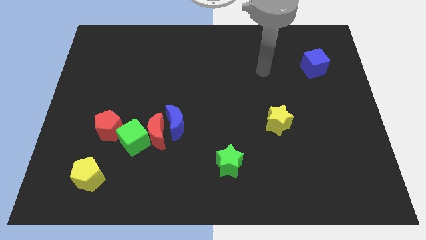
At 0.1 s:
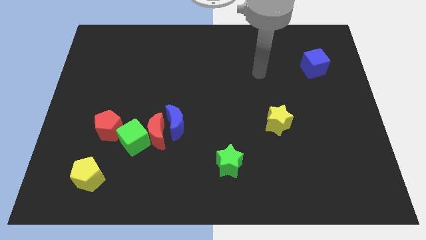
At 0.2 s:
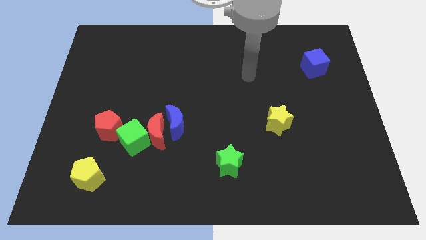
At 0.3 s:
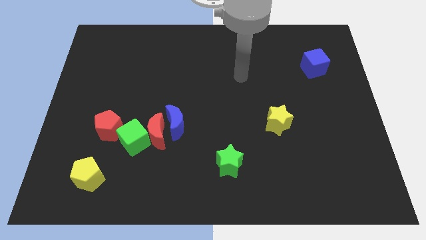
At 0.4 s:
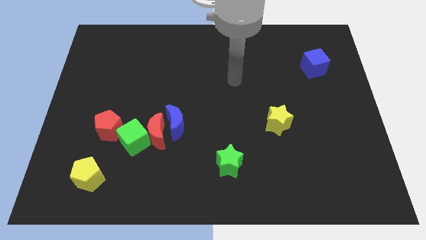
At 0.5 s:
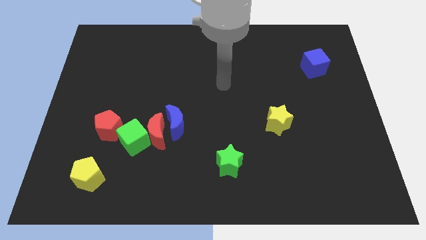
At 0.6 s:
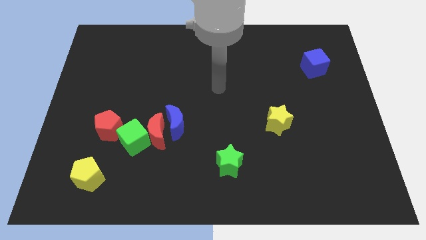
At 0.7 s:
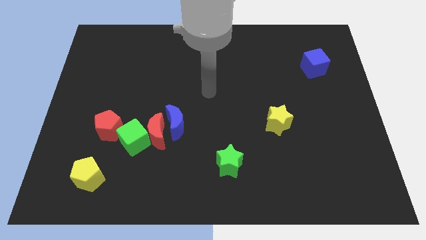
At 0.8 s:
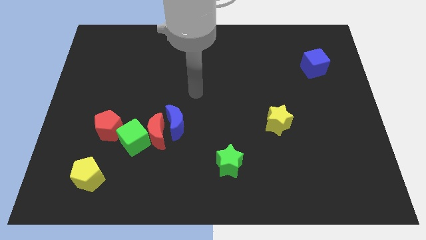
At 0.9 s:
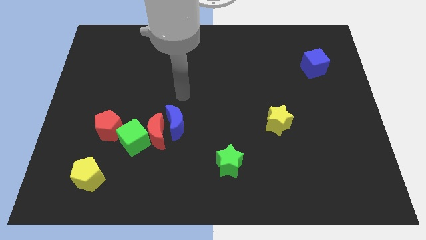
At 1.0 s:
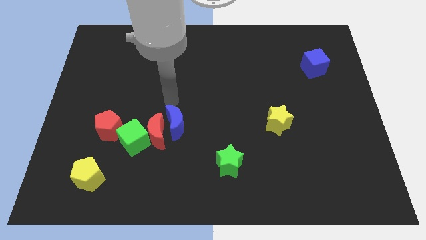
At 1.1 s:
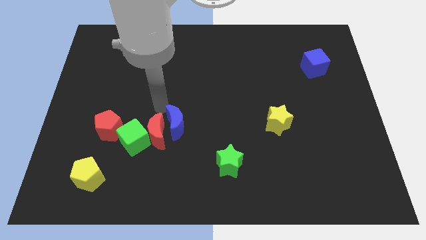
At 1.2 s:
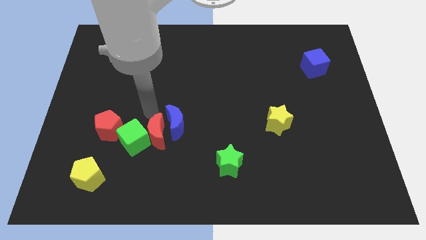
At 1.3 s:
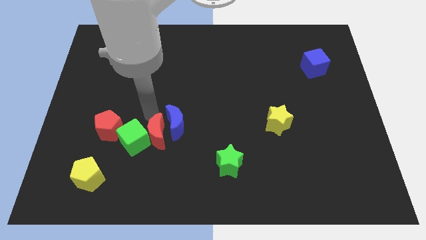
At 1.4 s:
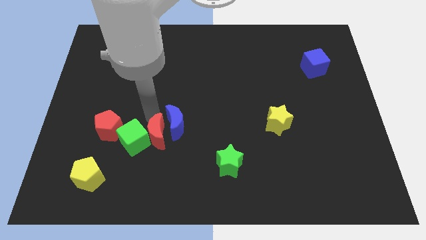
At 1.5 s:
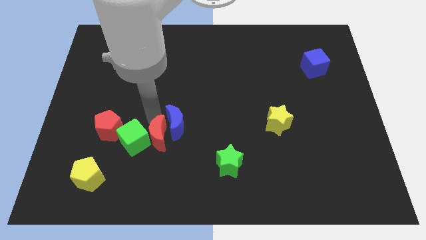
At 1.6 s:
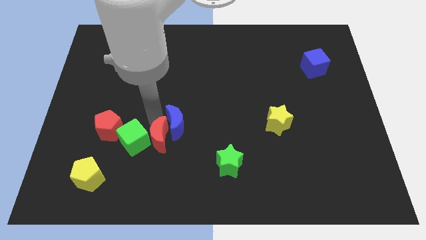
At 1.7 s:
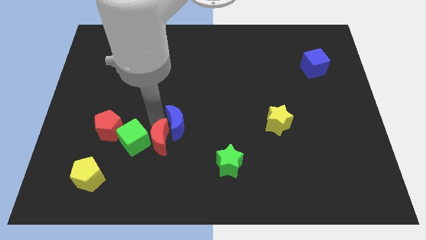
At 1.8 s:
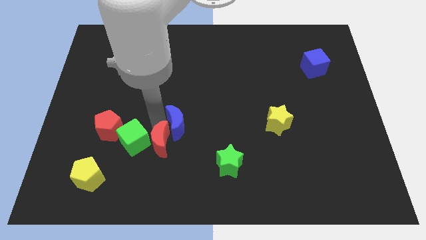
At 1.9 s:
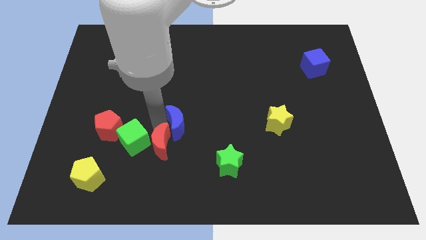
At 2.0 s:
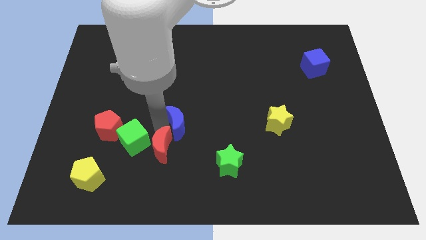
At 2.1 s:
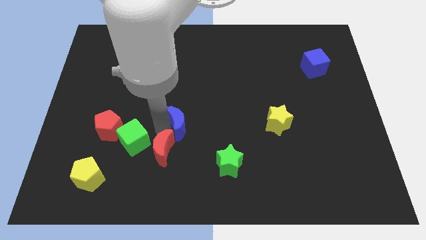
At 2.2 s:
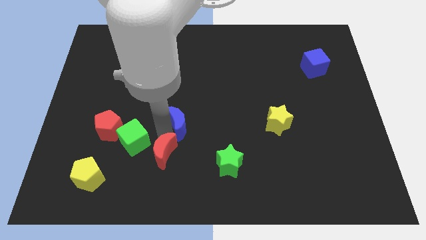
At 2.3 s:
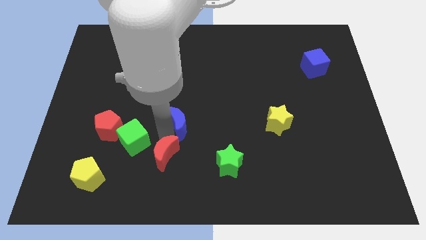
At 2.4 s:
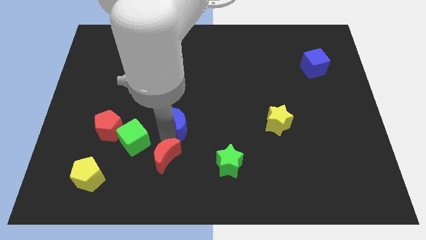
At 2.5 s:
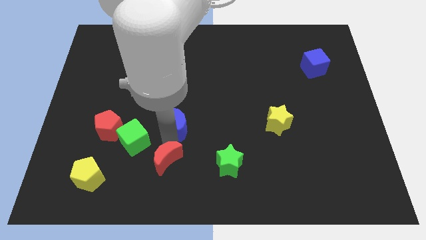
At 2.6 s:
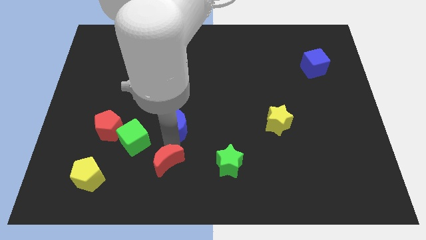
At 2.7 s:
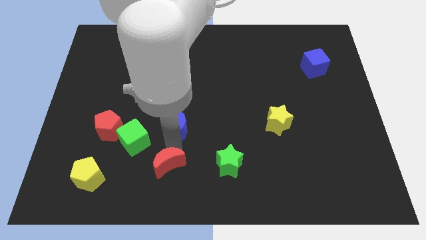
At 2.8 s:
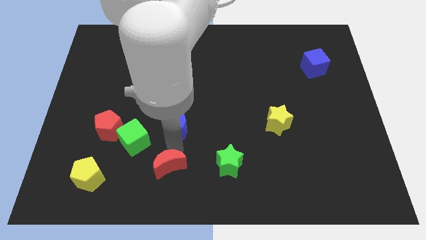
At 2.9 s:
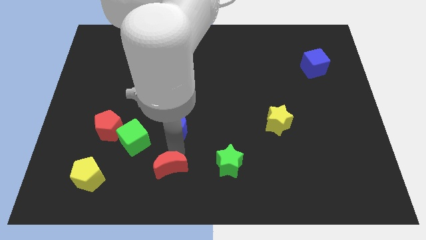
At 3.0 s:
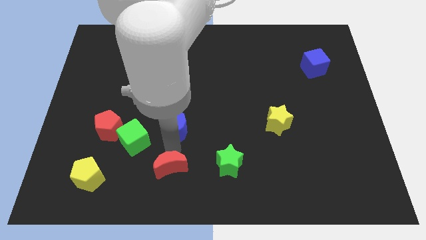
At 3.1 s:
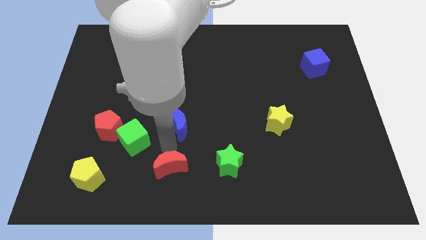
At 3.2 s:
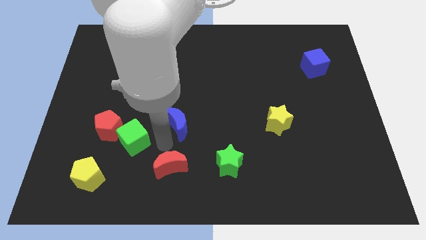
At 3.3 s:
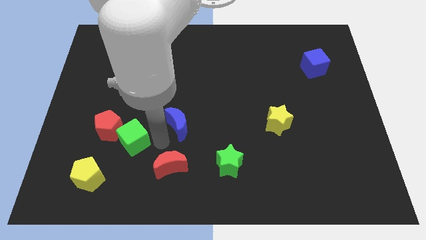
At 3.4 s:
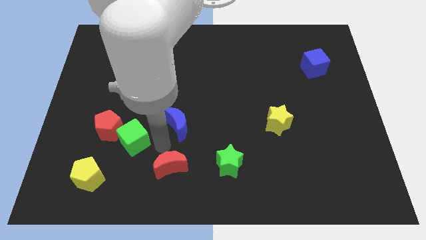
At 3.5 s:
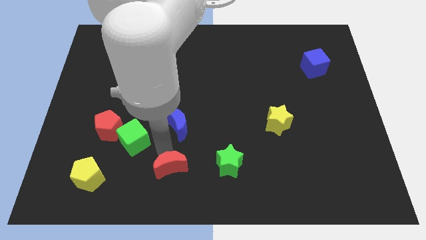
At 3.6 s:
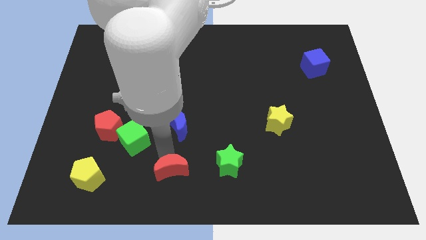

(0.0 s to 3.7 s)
separate the red moon from the blue moon and green cube

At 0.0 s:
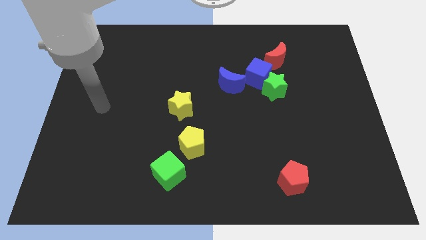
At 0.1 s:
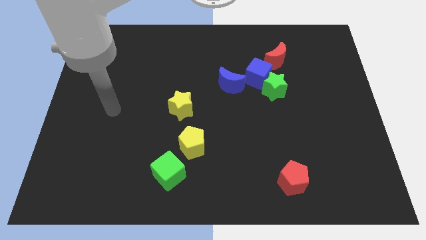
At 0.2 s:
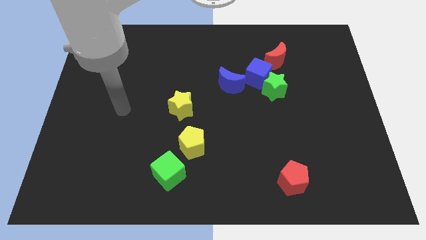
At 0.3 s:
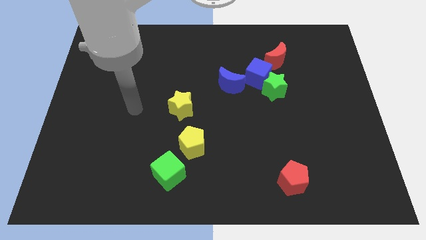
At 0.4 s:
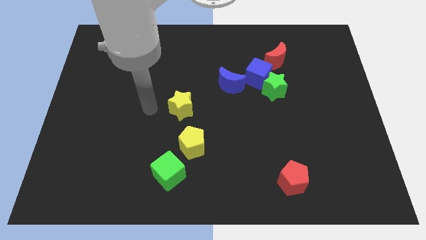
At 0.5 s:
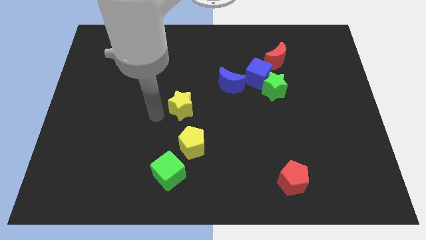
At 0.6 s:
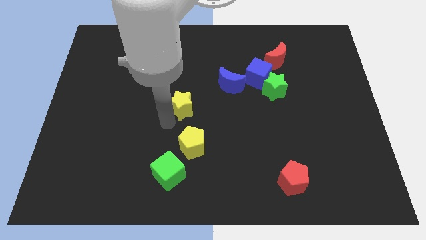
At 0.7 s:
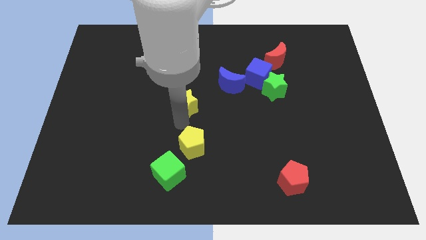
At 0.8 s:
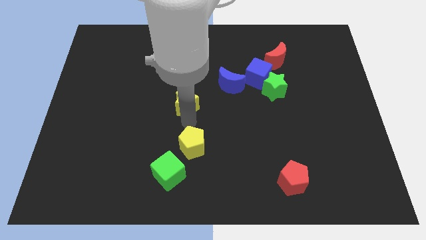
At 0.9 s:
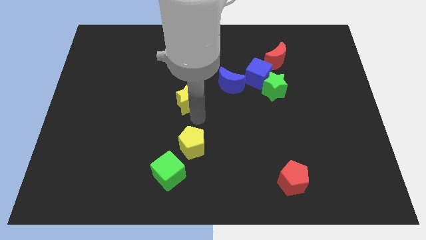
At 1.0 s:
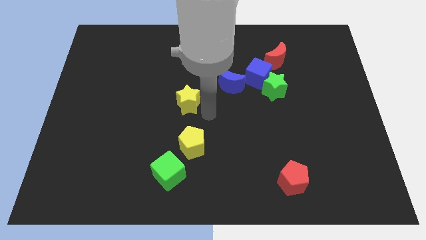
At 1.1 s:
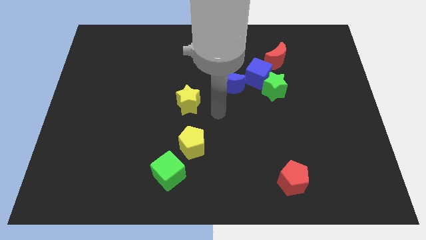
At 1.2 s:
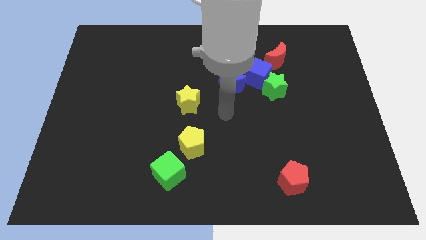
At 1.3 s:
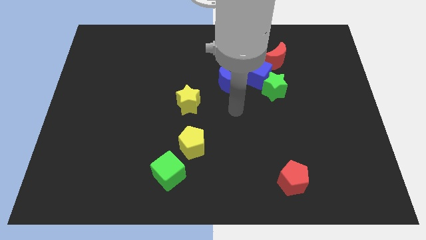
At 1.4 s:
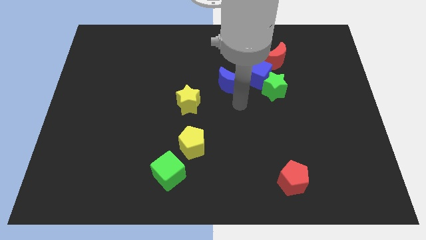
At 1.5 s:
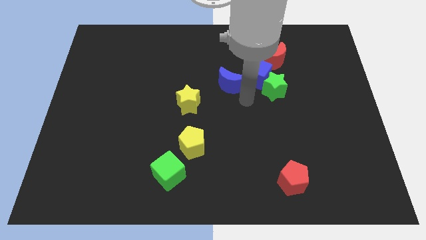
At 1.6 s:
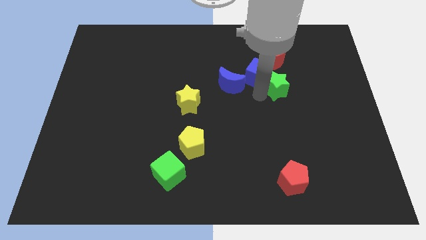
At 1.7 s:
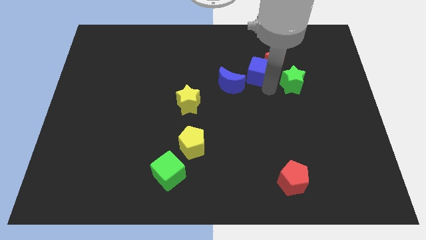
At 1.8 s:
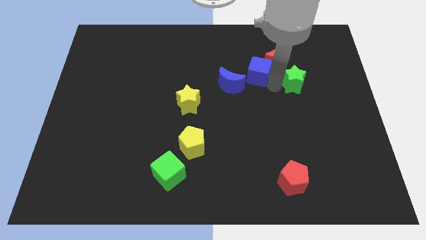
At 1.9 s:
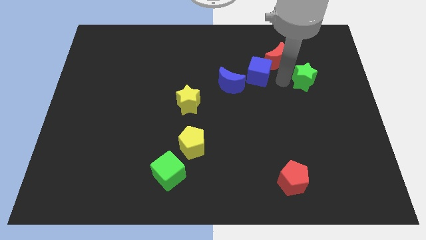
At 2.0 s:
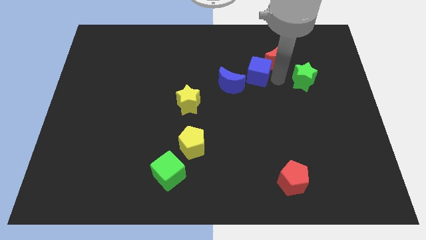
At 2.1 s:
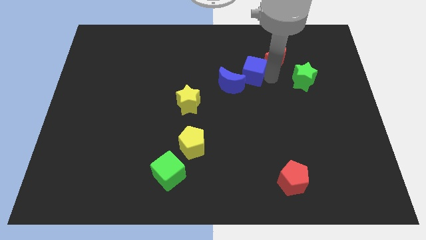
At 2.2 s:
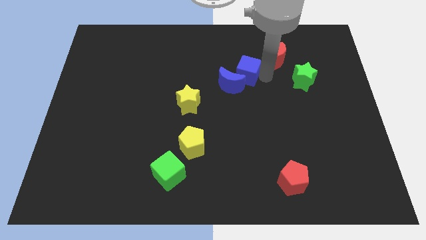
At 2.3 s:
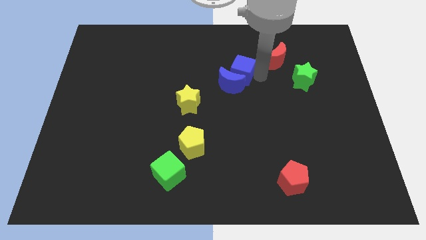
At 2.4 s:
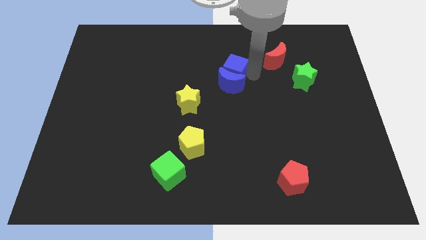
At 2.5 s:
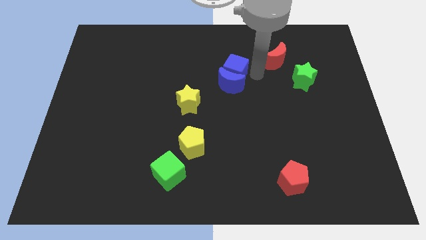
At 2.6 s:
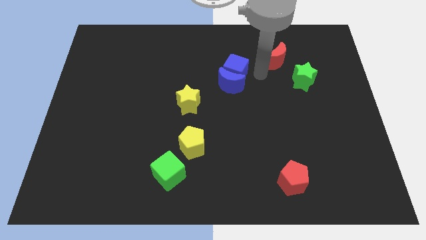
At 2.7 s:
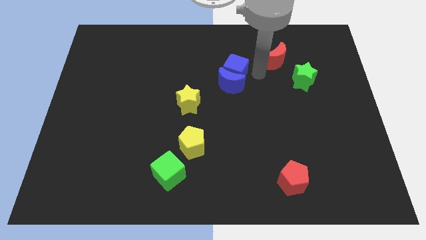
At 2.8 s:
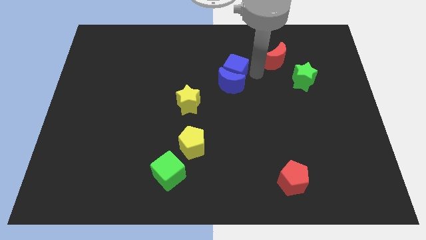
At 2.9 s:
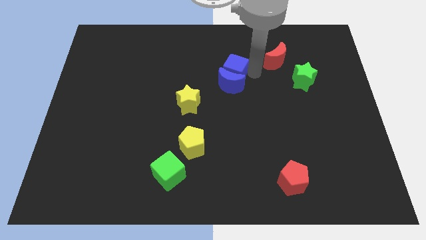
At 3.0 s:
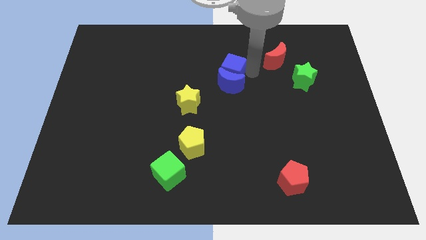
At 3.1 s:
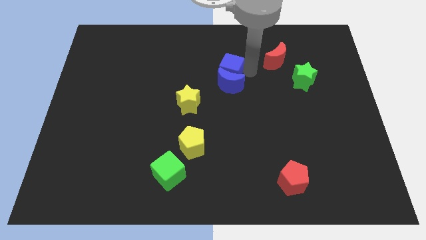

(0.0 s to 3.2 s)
move the blue cube away from the group

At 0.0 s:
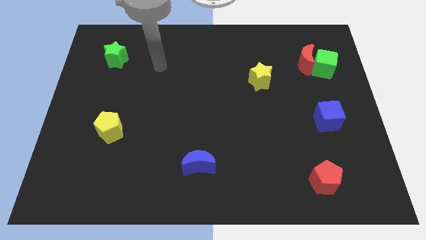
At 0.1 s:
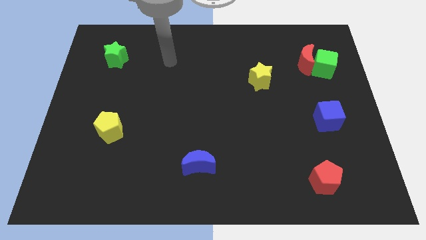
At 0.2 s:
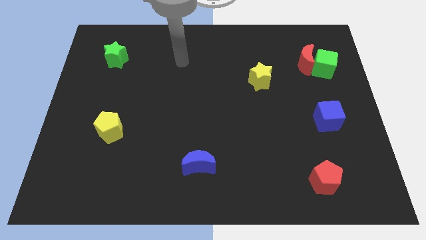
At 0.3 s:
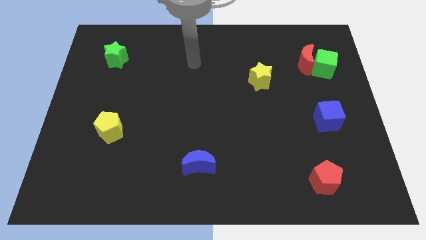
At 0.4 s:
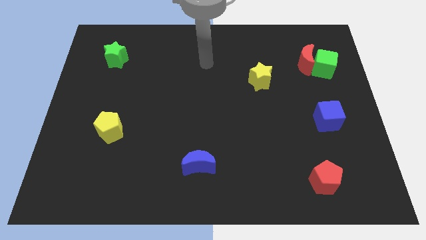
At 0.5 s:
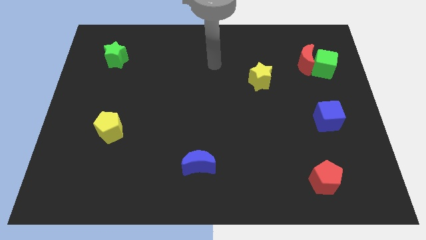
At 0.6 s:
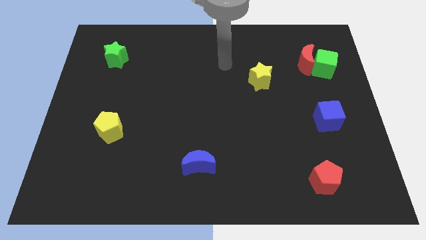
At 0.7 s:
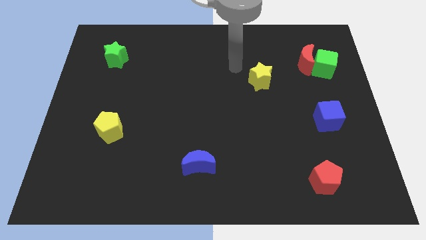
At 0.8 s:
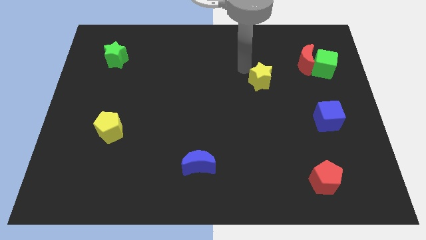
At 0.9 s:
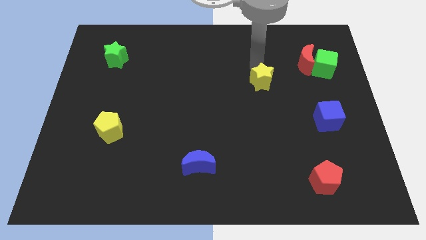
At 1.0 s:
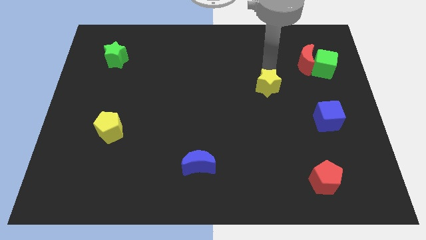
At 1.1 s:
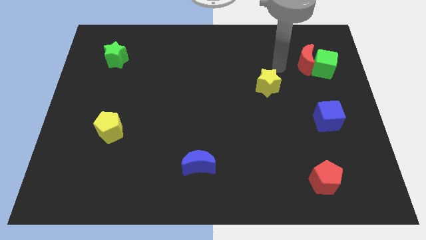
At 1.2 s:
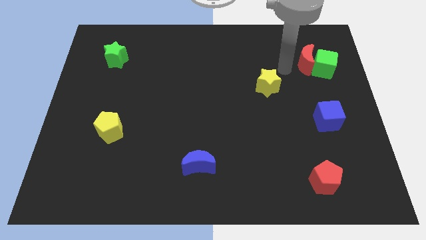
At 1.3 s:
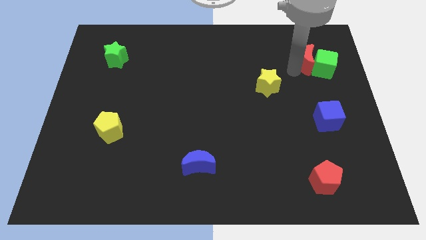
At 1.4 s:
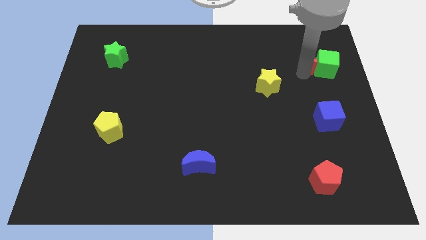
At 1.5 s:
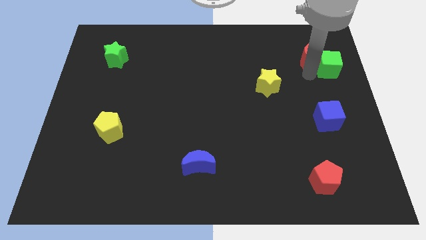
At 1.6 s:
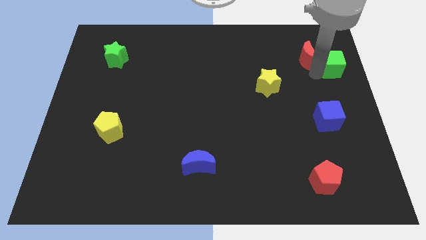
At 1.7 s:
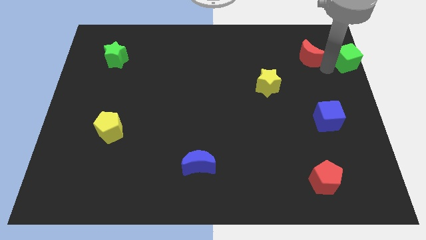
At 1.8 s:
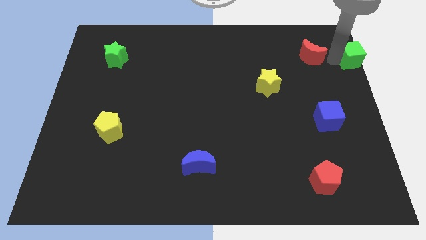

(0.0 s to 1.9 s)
move the red moon away from the green cube

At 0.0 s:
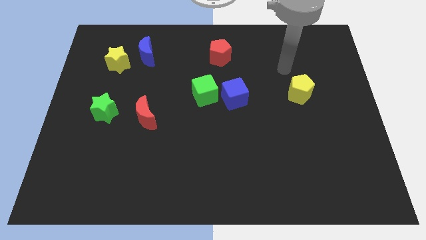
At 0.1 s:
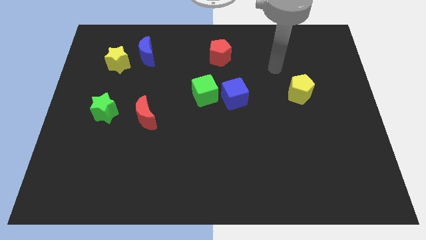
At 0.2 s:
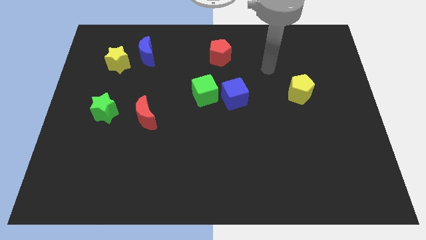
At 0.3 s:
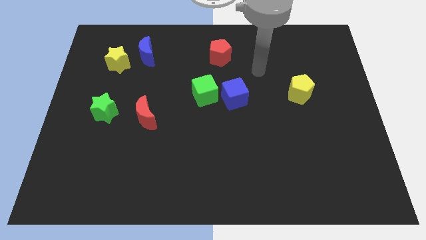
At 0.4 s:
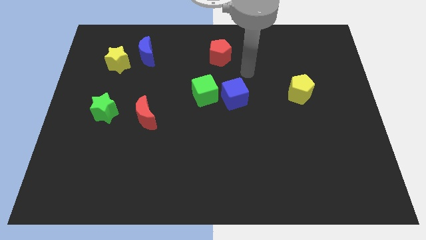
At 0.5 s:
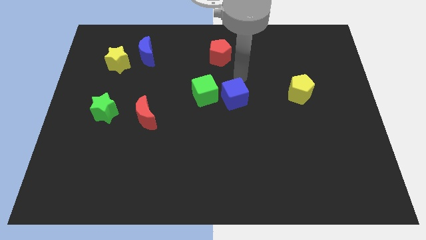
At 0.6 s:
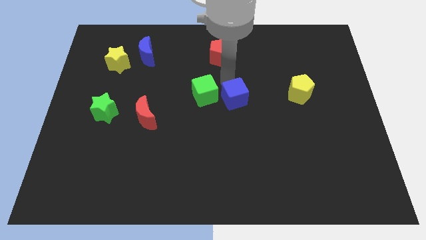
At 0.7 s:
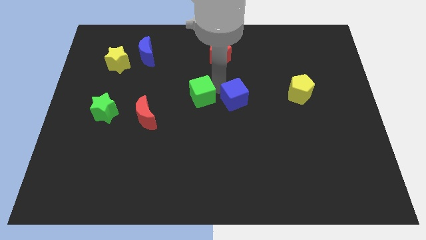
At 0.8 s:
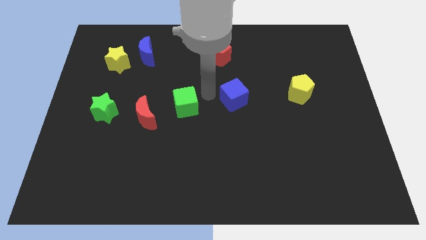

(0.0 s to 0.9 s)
pull the blue cube apart from the green cube
